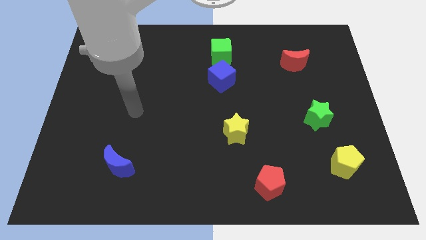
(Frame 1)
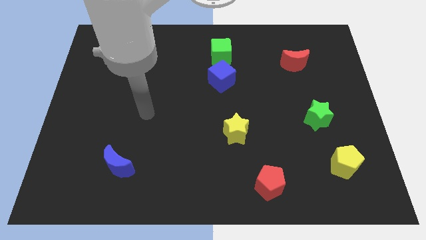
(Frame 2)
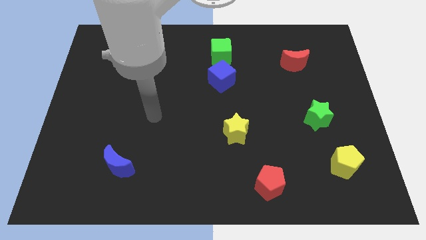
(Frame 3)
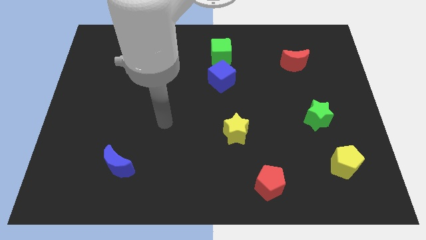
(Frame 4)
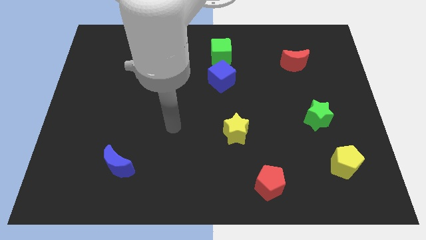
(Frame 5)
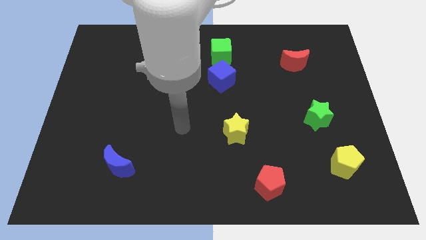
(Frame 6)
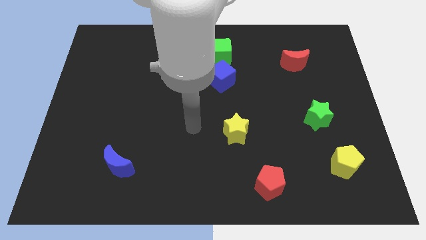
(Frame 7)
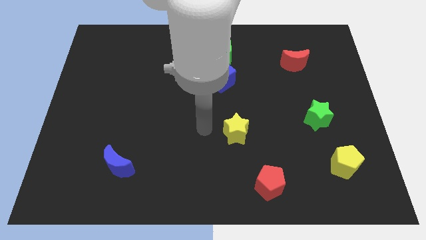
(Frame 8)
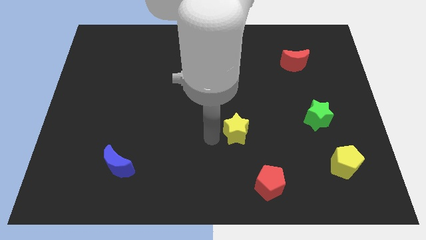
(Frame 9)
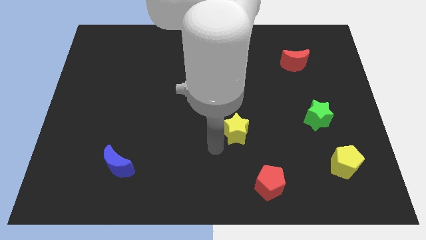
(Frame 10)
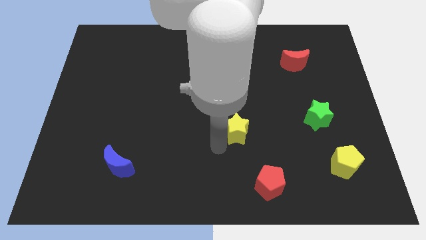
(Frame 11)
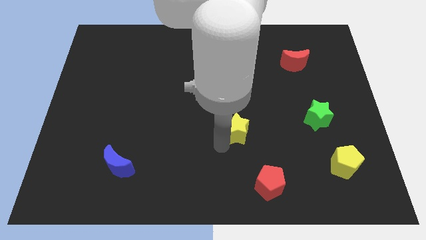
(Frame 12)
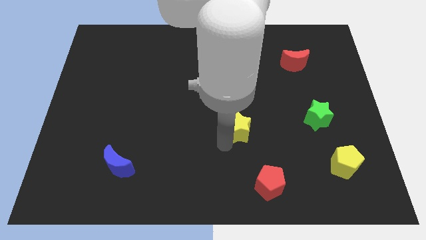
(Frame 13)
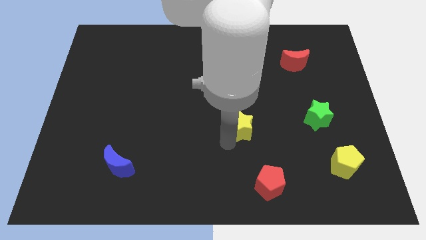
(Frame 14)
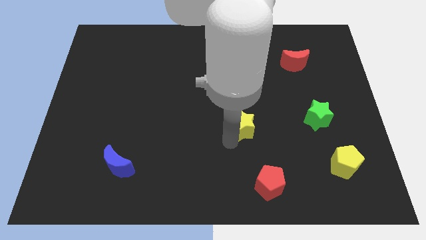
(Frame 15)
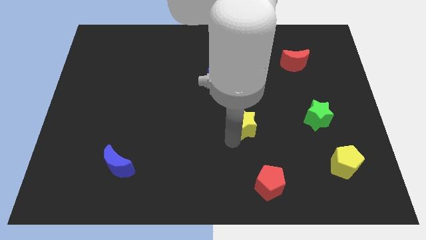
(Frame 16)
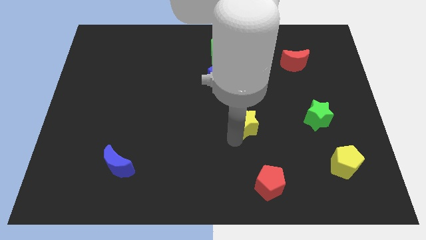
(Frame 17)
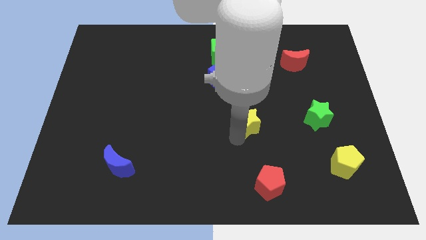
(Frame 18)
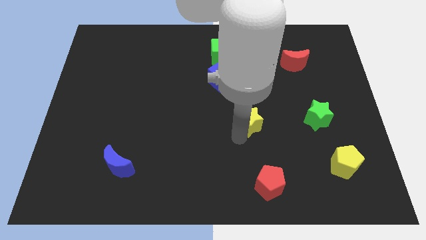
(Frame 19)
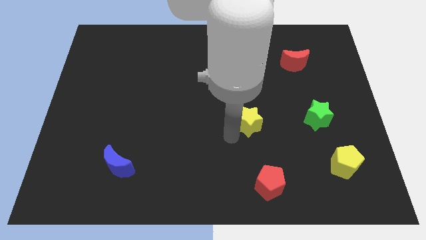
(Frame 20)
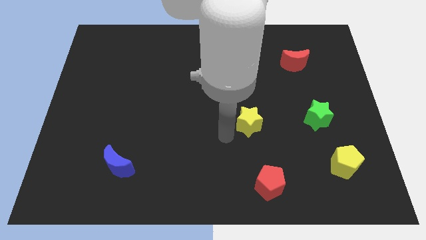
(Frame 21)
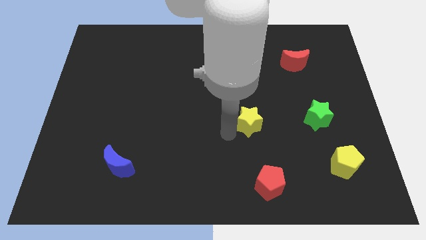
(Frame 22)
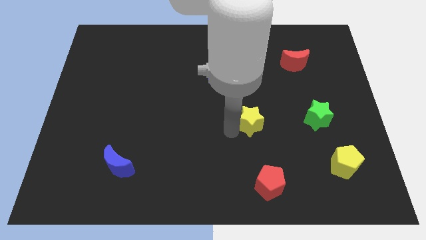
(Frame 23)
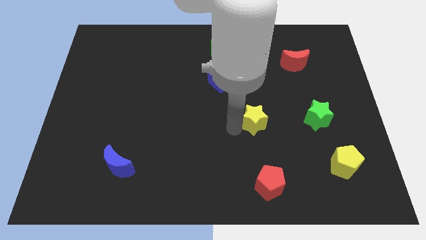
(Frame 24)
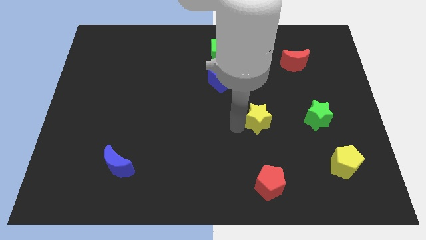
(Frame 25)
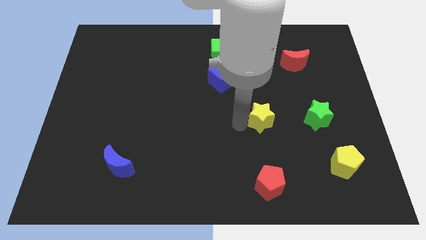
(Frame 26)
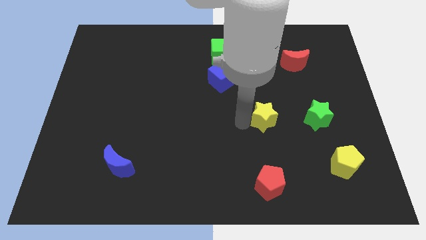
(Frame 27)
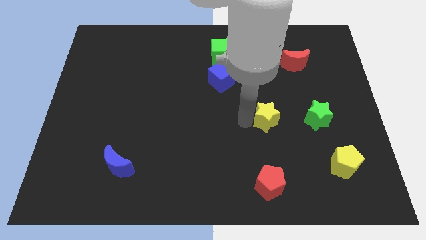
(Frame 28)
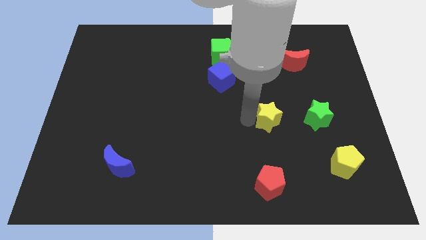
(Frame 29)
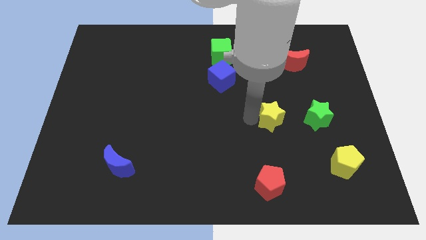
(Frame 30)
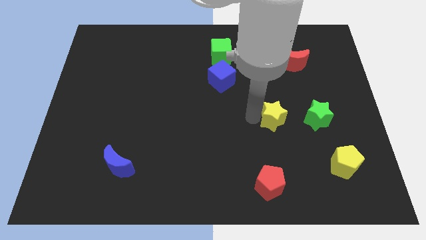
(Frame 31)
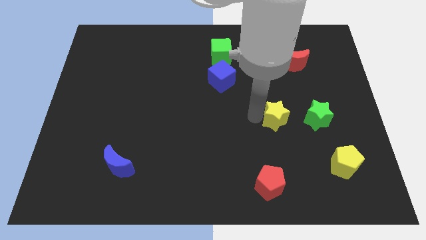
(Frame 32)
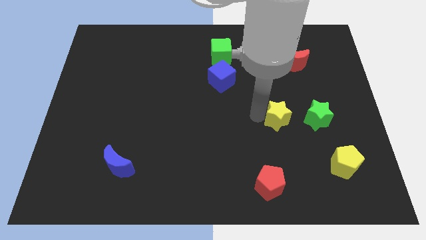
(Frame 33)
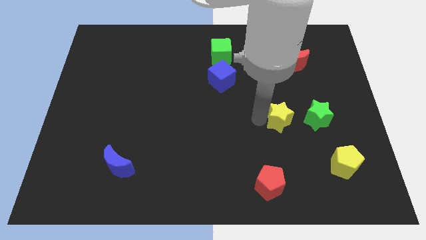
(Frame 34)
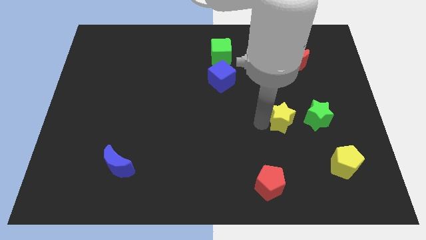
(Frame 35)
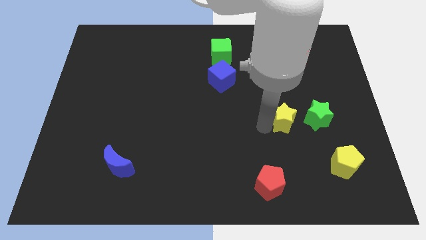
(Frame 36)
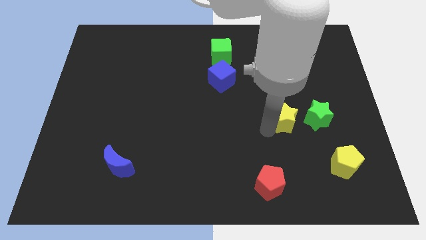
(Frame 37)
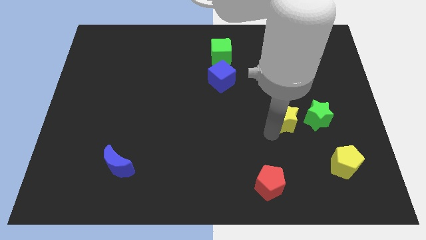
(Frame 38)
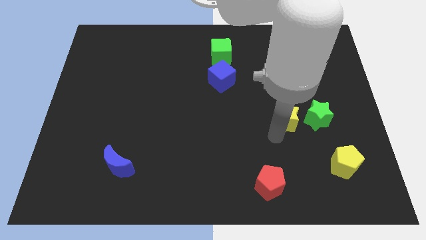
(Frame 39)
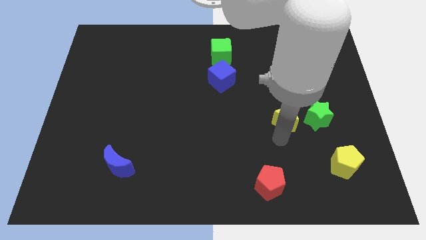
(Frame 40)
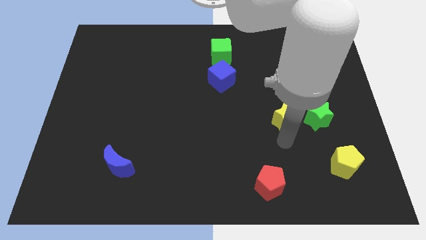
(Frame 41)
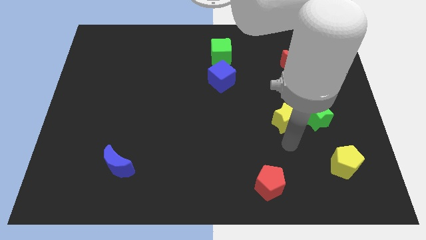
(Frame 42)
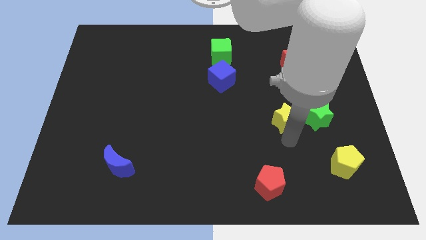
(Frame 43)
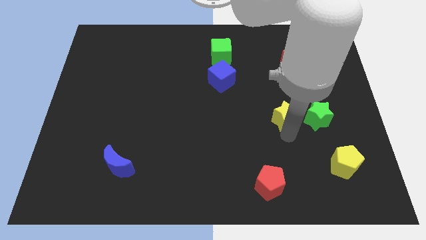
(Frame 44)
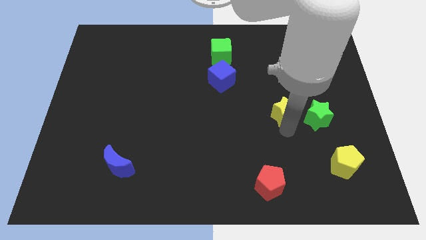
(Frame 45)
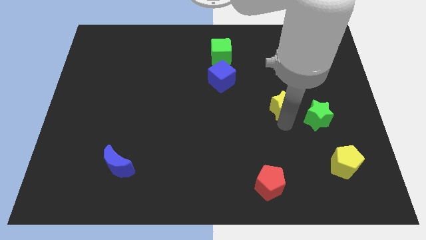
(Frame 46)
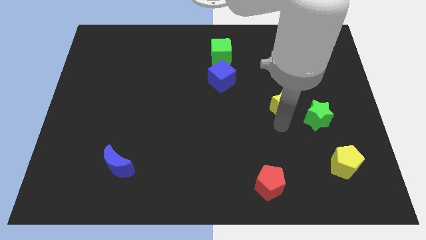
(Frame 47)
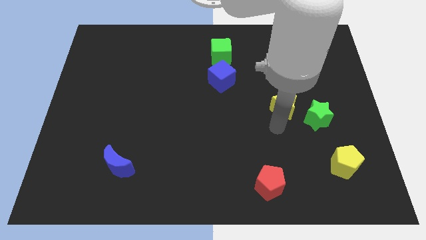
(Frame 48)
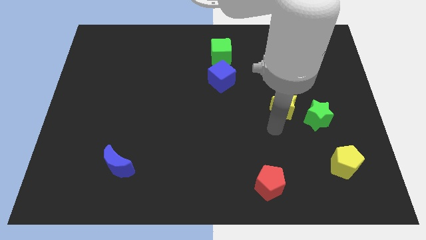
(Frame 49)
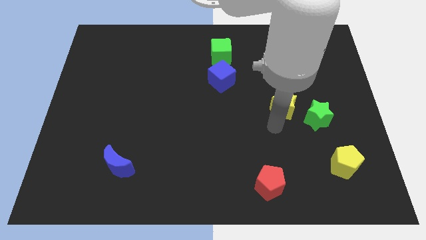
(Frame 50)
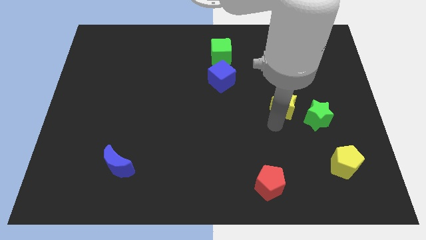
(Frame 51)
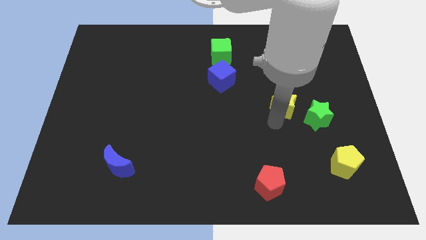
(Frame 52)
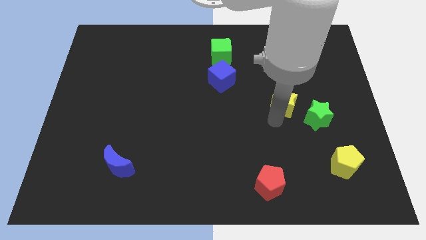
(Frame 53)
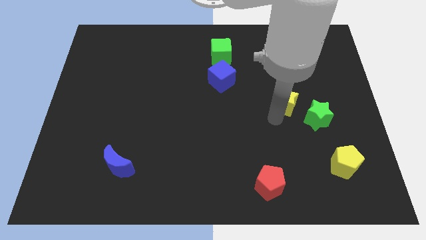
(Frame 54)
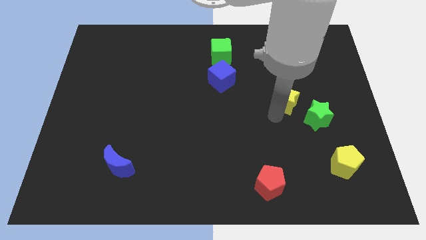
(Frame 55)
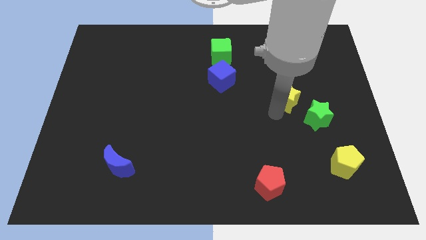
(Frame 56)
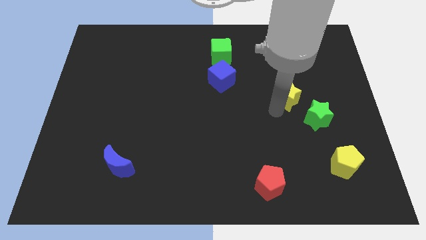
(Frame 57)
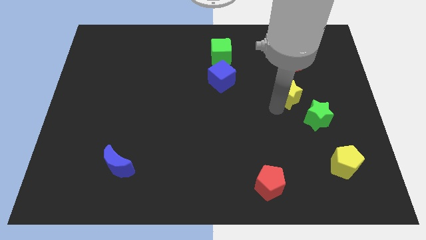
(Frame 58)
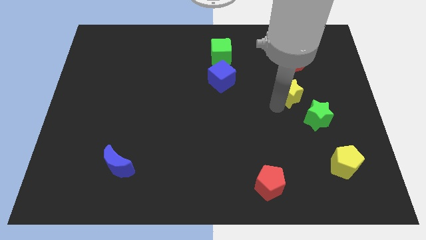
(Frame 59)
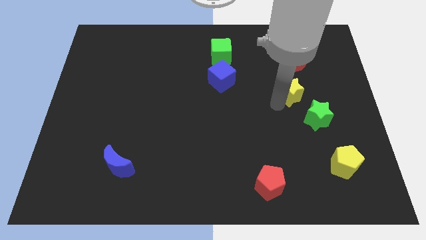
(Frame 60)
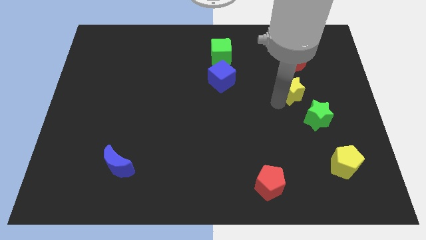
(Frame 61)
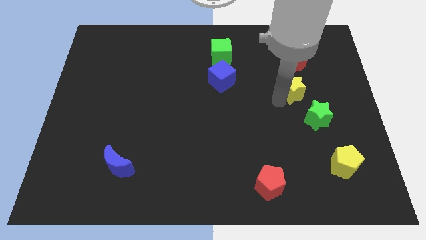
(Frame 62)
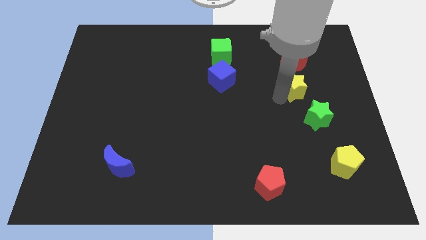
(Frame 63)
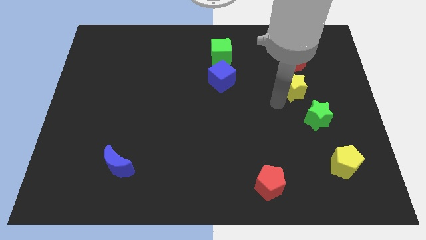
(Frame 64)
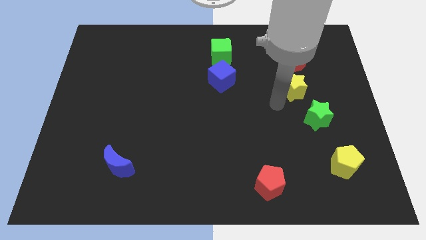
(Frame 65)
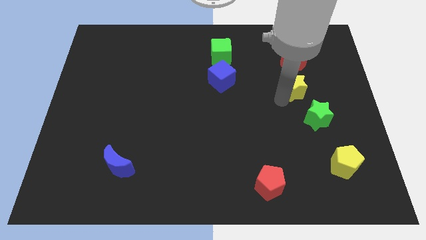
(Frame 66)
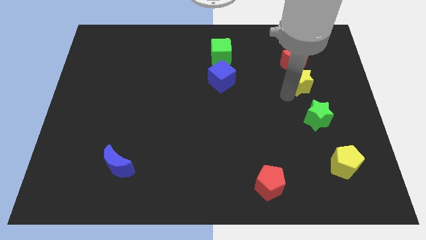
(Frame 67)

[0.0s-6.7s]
push the yellow star up and right diagonally

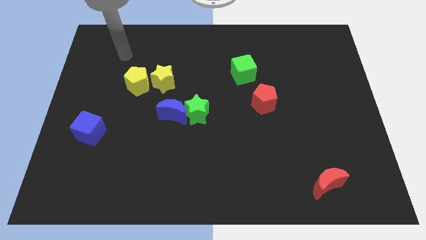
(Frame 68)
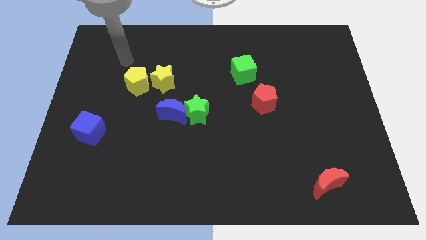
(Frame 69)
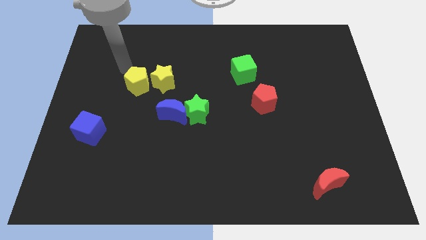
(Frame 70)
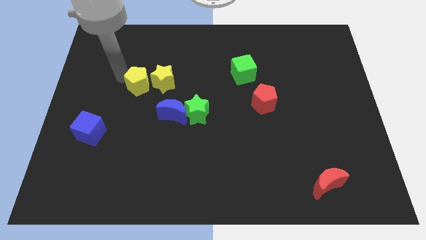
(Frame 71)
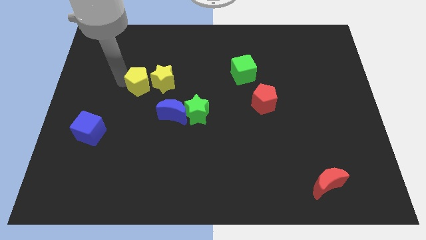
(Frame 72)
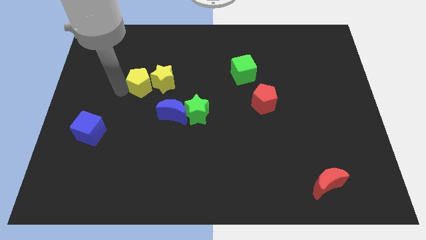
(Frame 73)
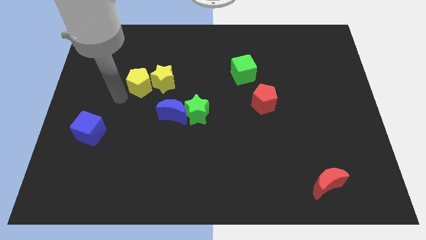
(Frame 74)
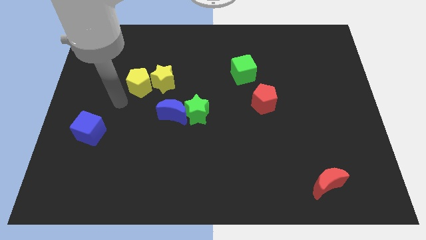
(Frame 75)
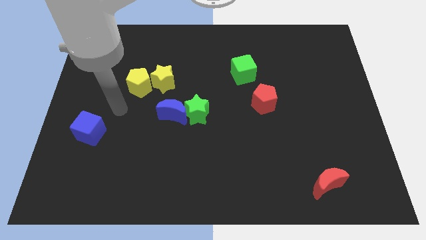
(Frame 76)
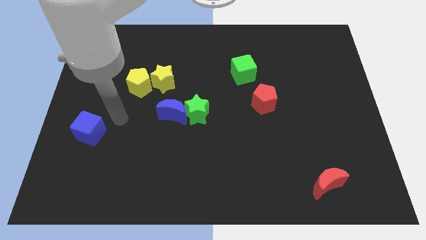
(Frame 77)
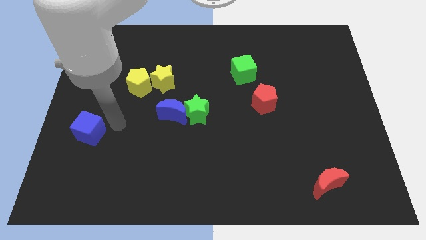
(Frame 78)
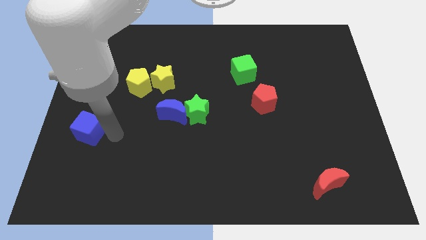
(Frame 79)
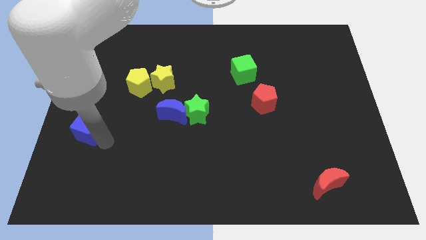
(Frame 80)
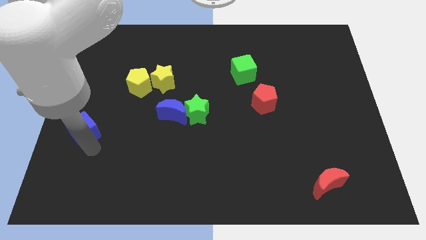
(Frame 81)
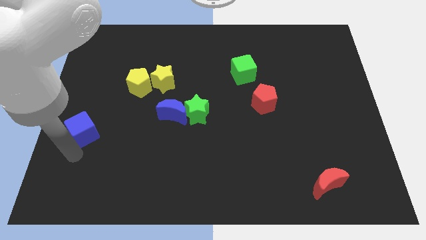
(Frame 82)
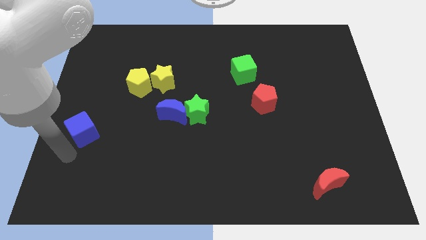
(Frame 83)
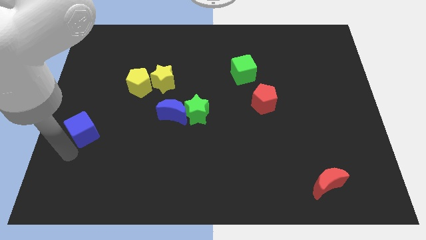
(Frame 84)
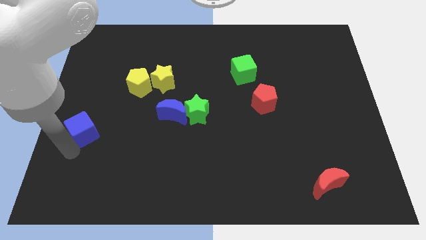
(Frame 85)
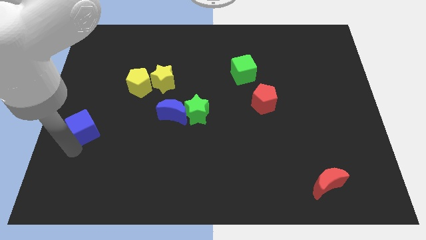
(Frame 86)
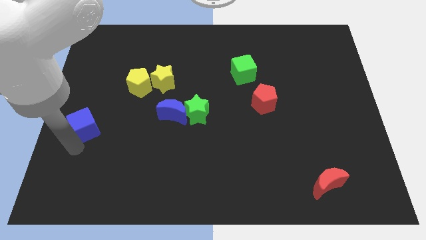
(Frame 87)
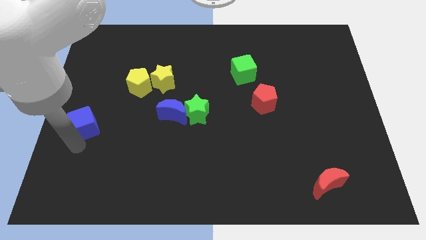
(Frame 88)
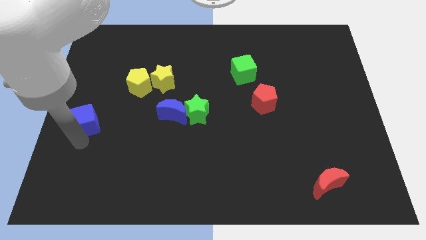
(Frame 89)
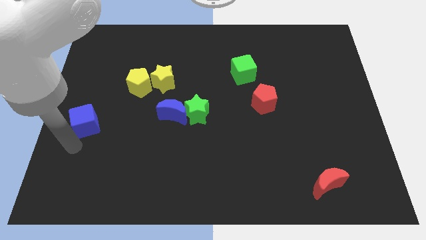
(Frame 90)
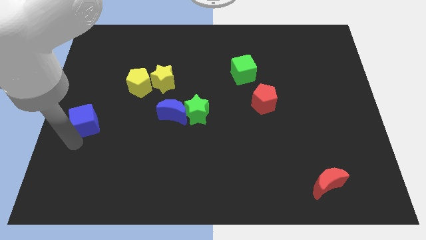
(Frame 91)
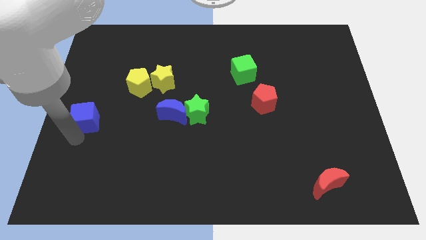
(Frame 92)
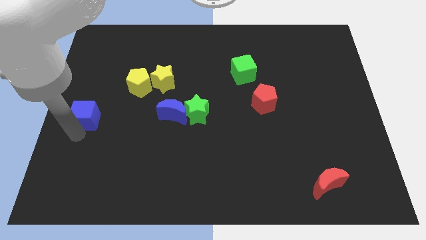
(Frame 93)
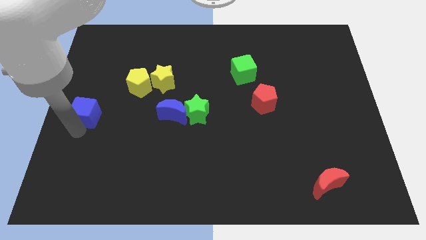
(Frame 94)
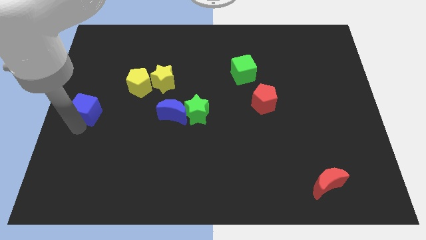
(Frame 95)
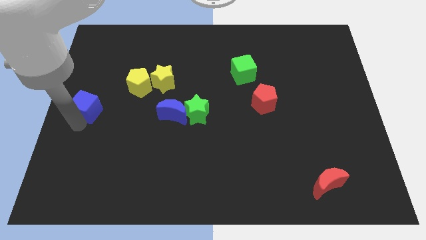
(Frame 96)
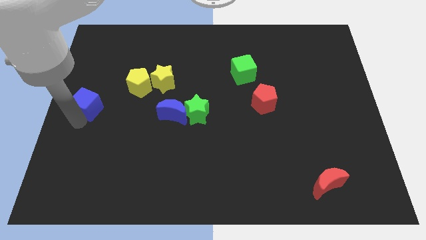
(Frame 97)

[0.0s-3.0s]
slightly slide the blue cube up
